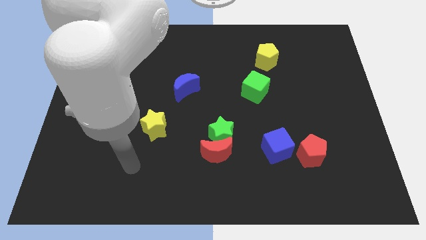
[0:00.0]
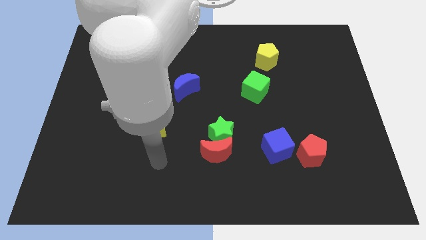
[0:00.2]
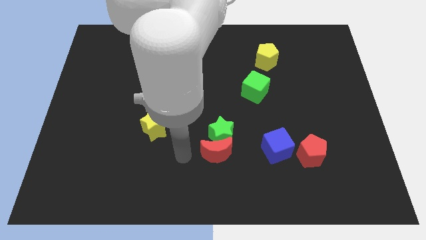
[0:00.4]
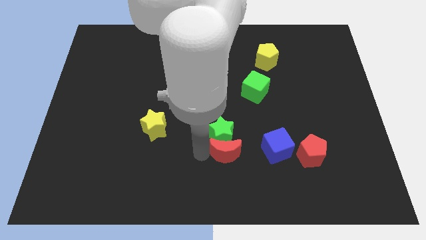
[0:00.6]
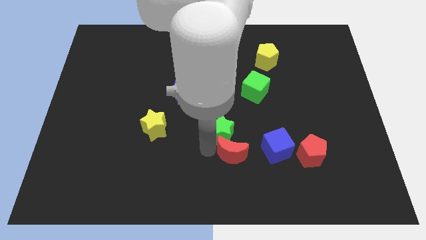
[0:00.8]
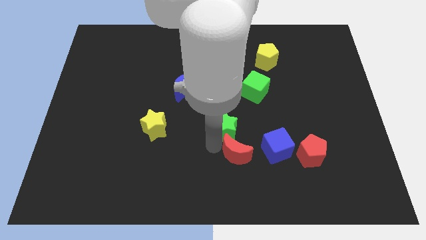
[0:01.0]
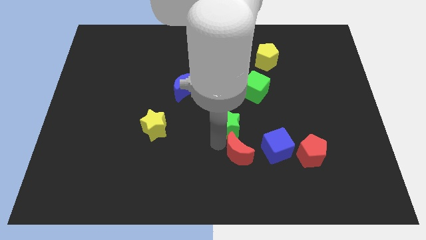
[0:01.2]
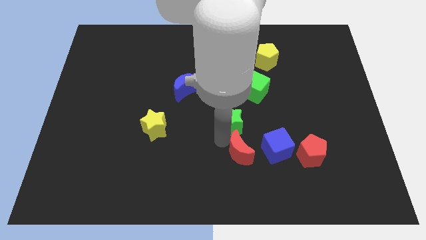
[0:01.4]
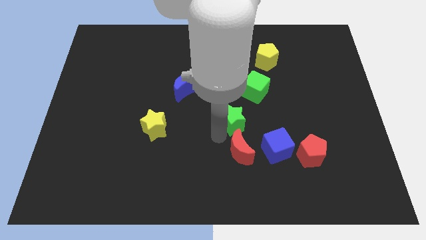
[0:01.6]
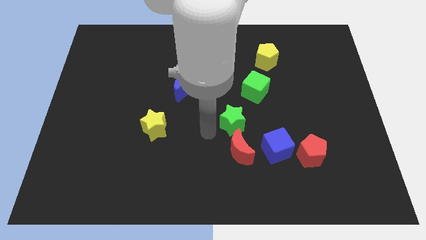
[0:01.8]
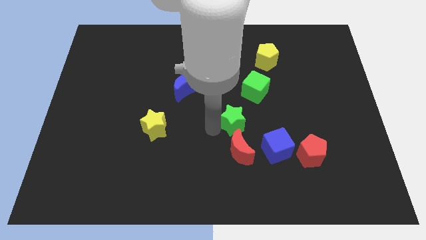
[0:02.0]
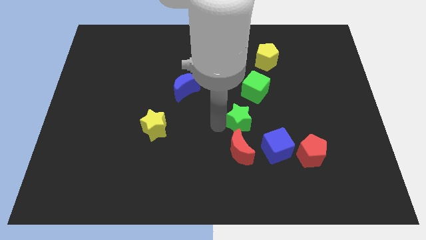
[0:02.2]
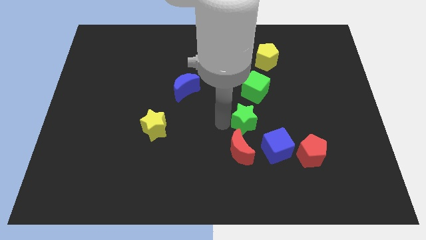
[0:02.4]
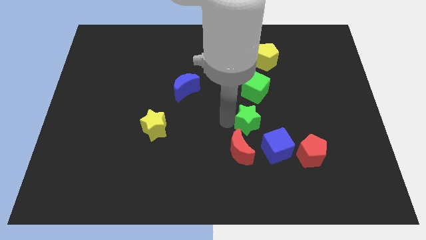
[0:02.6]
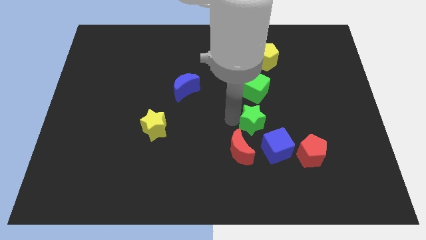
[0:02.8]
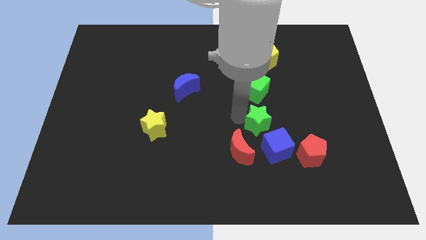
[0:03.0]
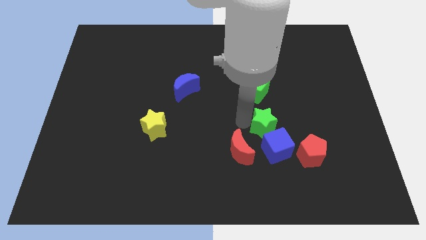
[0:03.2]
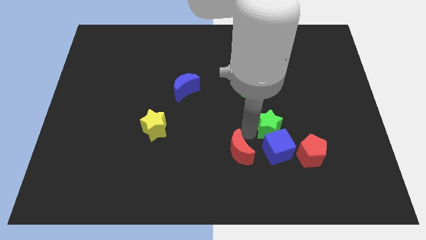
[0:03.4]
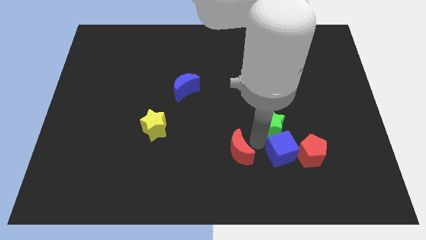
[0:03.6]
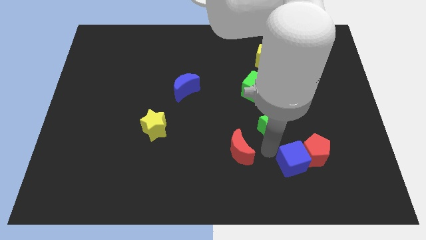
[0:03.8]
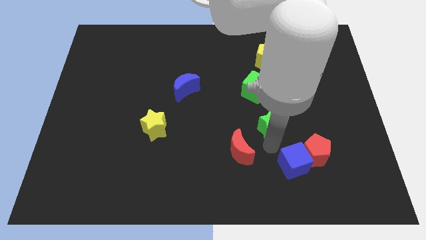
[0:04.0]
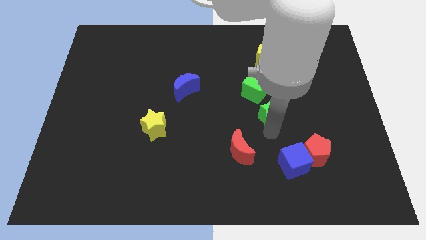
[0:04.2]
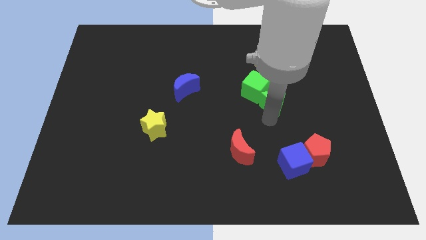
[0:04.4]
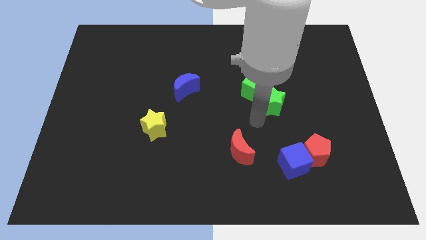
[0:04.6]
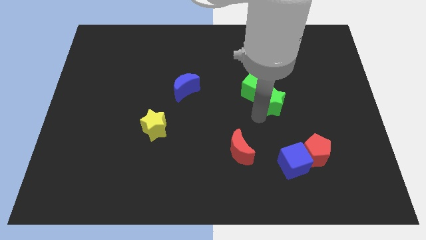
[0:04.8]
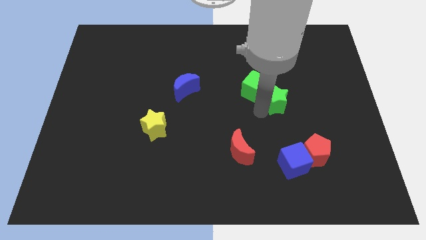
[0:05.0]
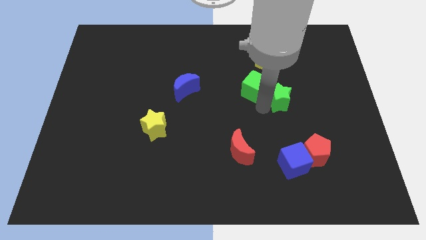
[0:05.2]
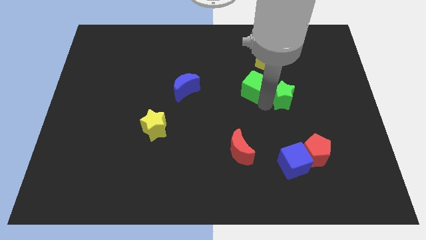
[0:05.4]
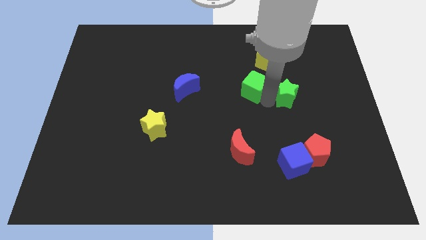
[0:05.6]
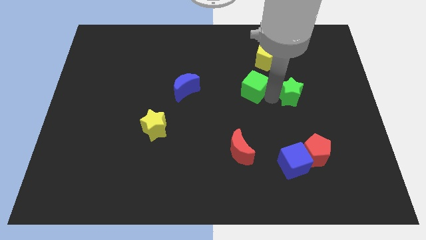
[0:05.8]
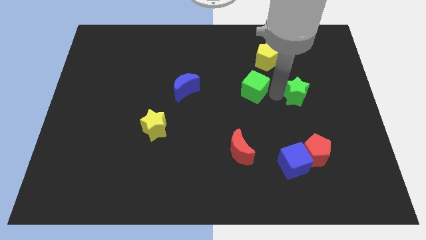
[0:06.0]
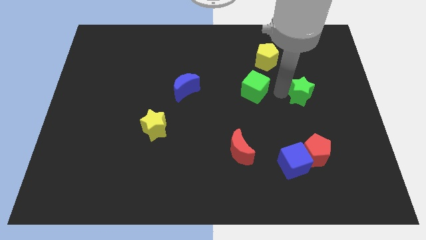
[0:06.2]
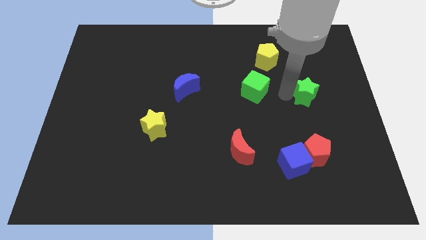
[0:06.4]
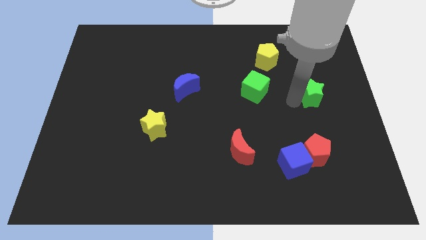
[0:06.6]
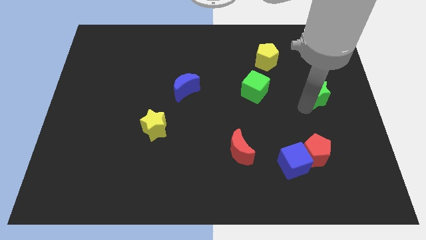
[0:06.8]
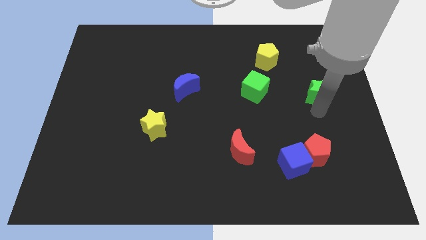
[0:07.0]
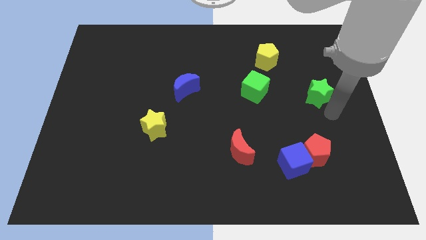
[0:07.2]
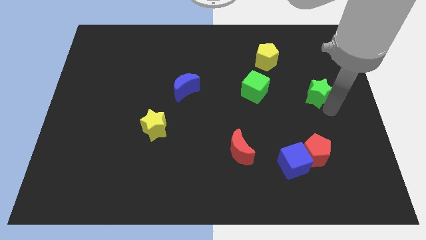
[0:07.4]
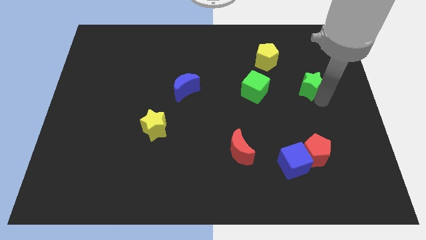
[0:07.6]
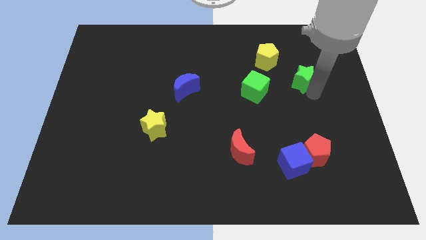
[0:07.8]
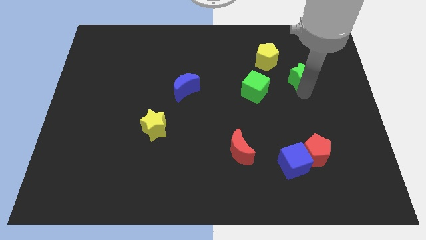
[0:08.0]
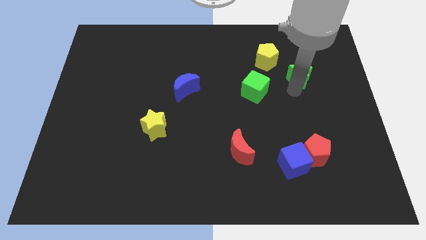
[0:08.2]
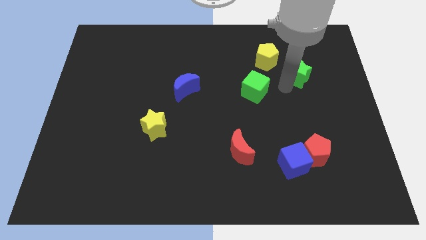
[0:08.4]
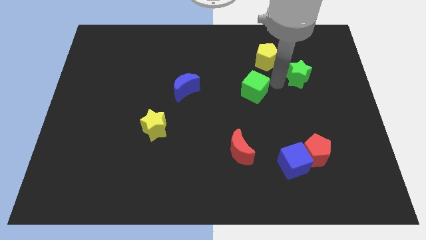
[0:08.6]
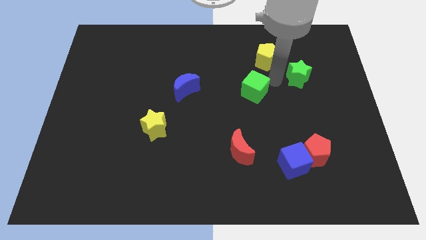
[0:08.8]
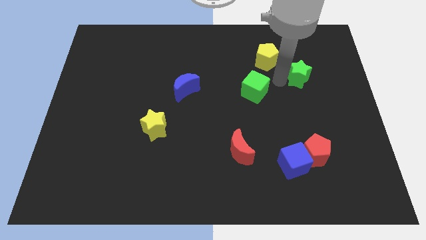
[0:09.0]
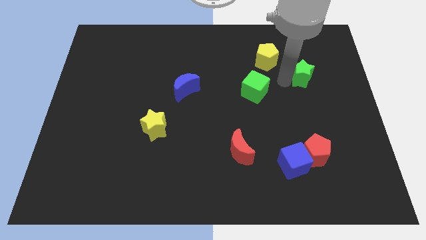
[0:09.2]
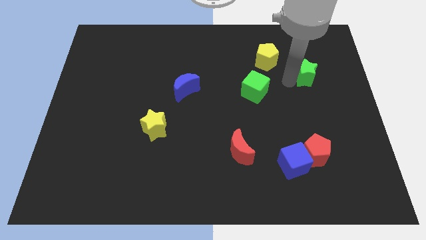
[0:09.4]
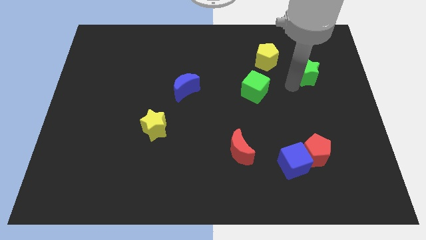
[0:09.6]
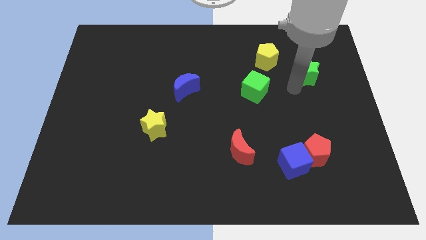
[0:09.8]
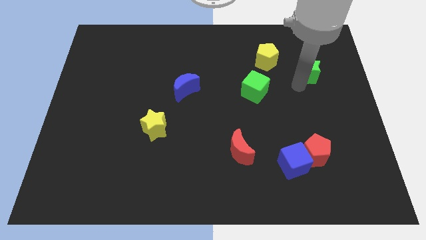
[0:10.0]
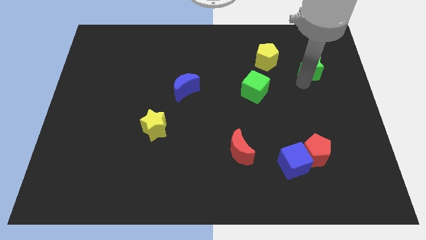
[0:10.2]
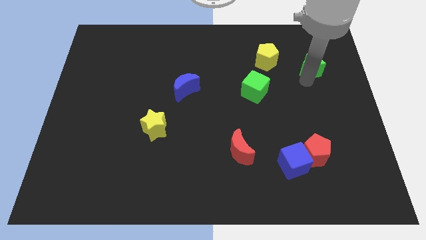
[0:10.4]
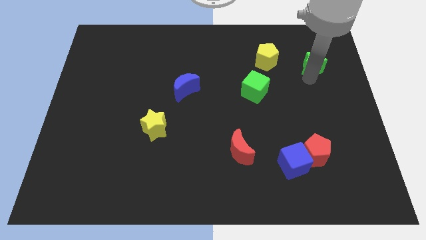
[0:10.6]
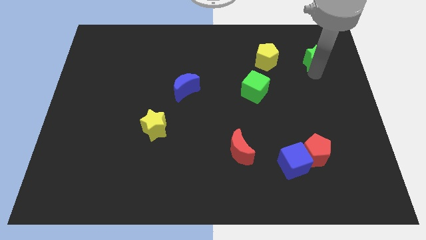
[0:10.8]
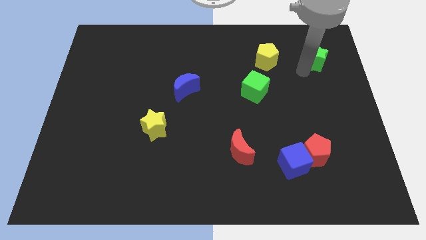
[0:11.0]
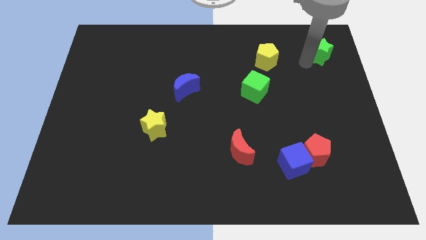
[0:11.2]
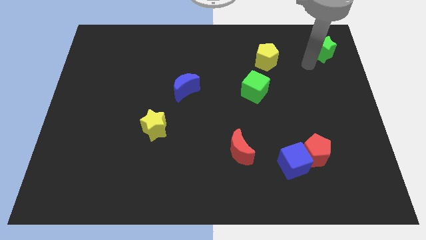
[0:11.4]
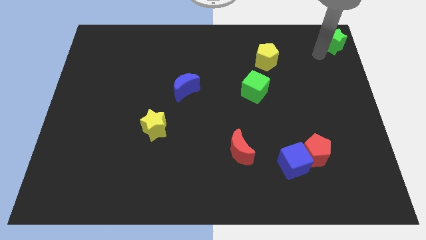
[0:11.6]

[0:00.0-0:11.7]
move the green star to the top right corner
